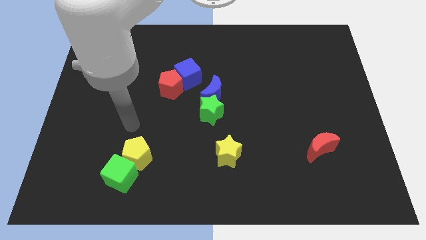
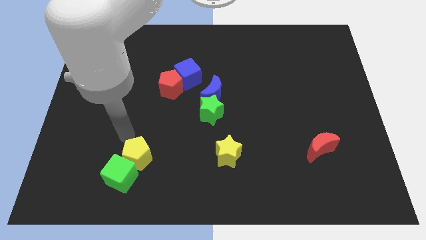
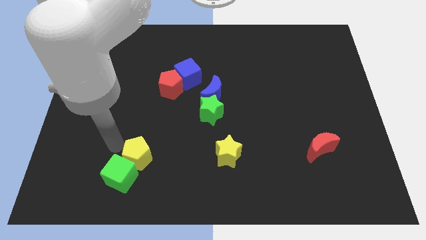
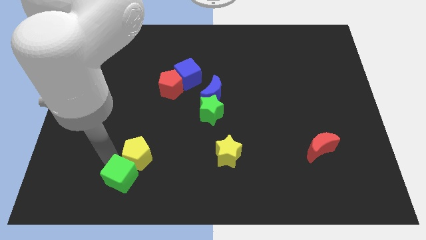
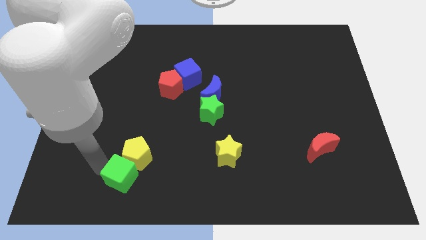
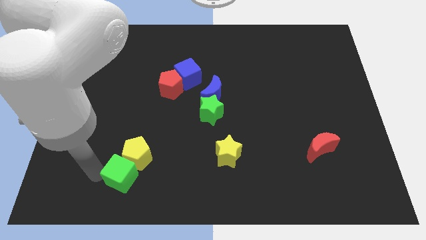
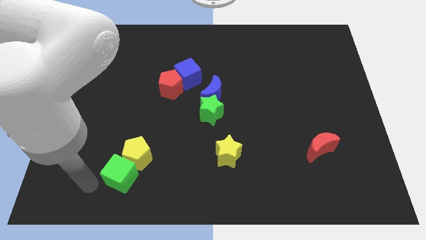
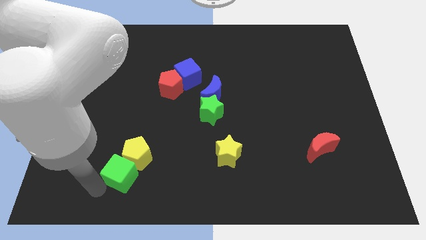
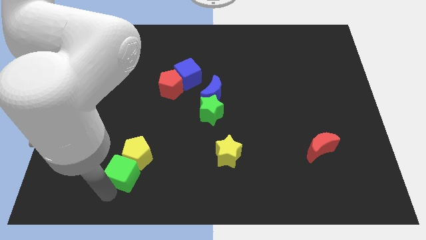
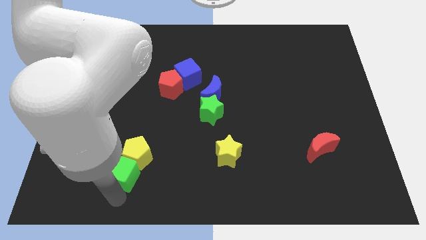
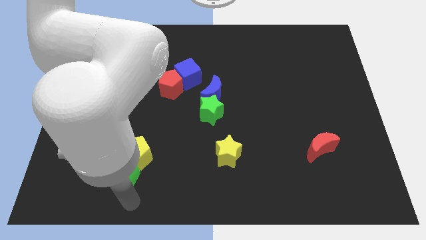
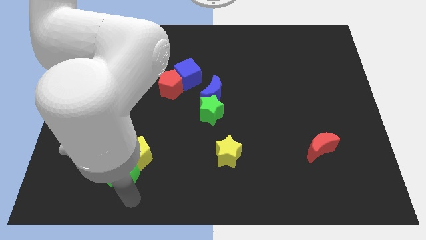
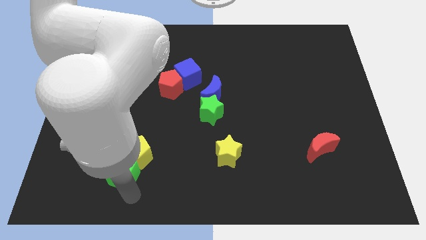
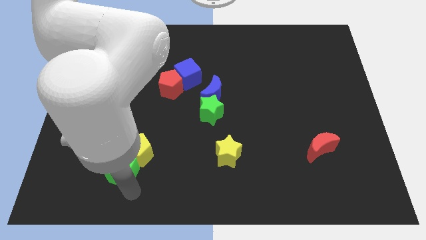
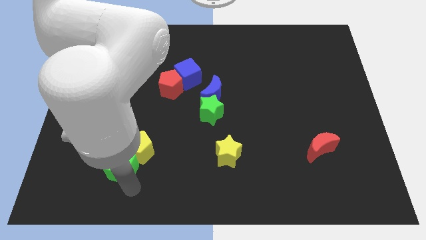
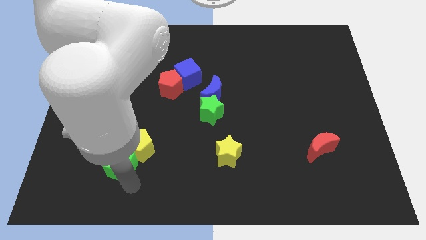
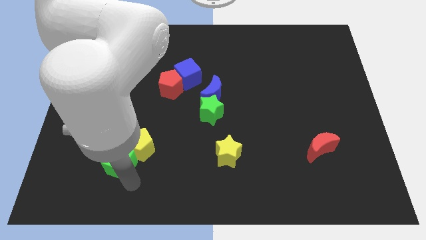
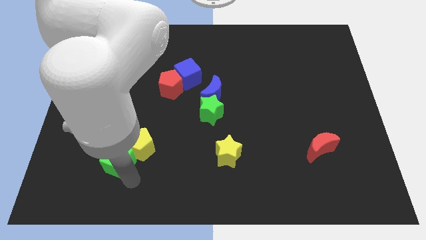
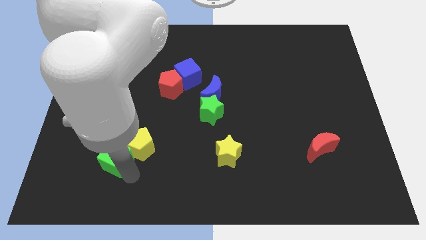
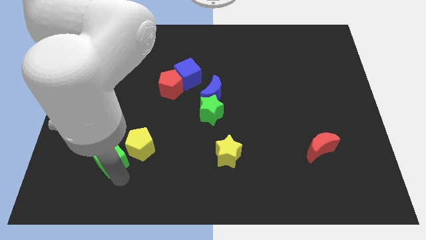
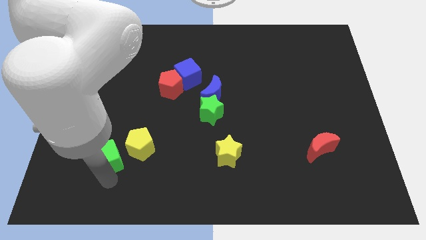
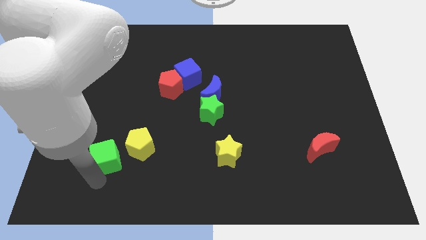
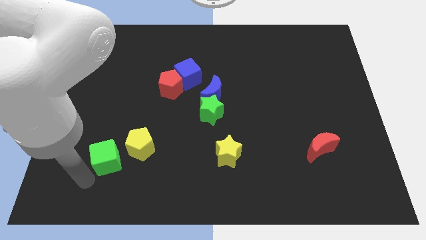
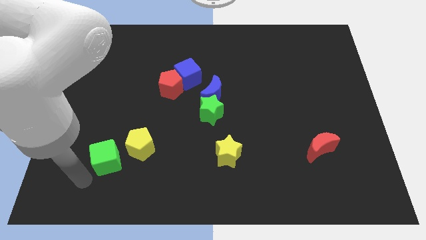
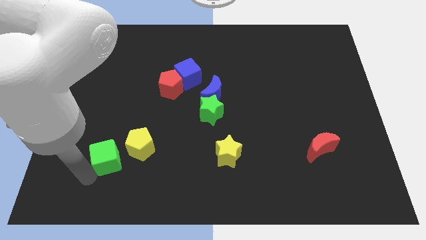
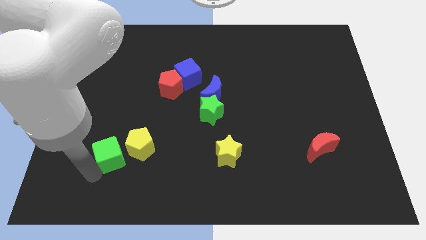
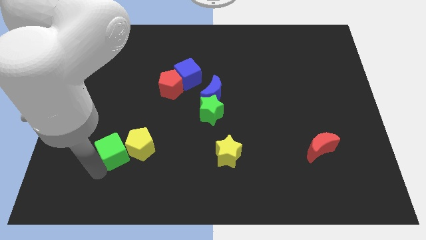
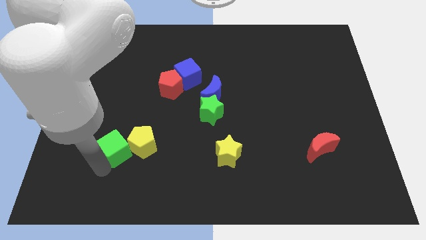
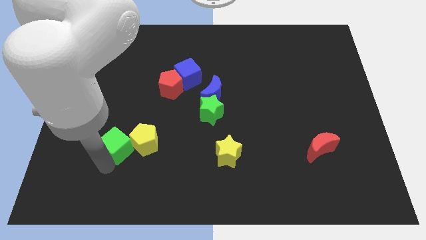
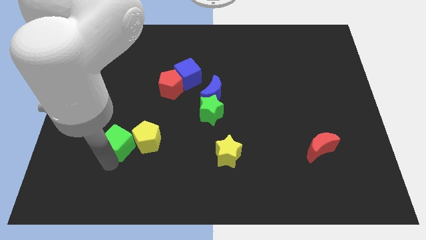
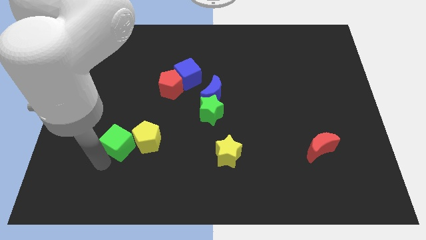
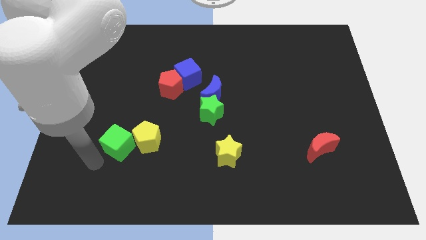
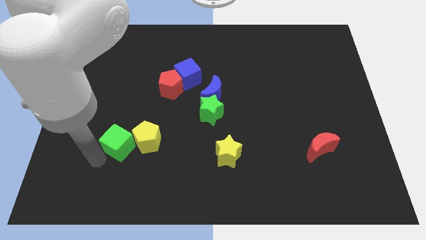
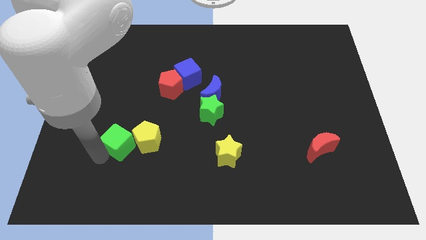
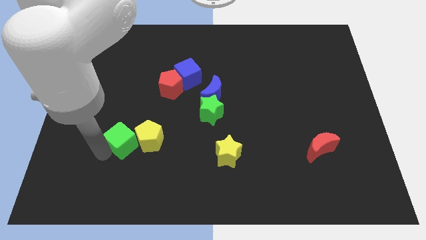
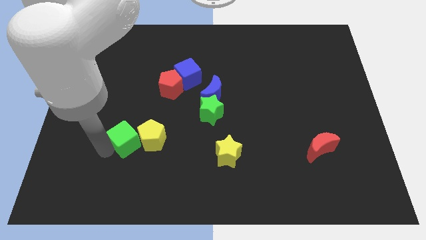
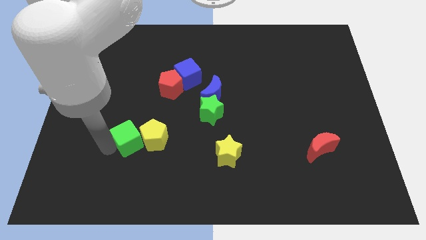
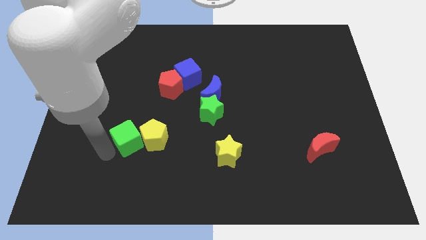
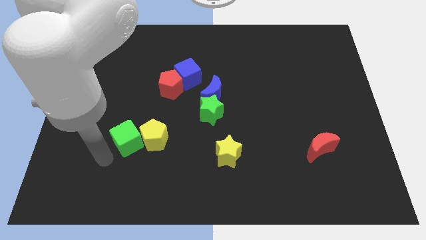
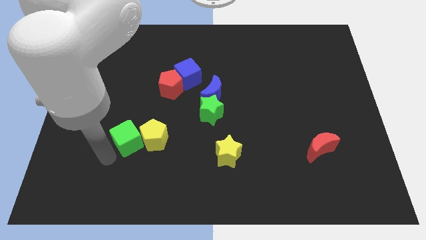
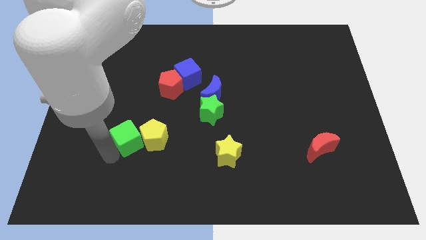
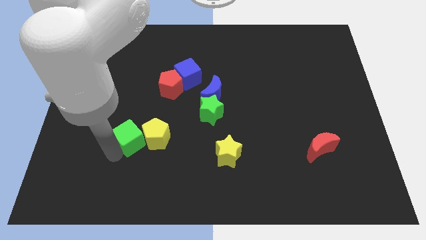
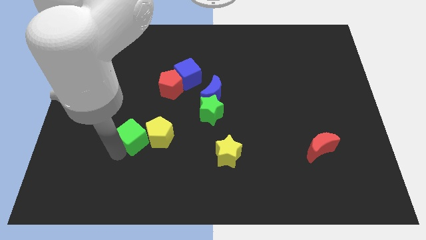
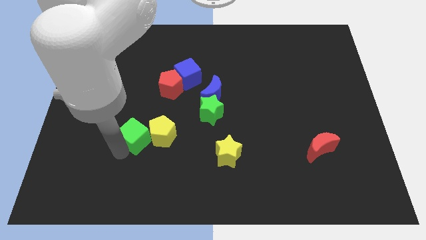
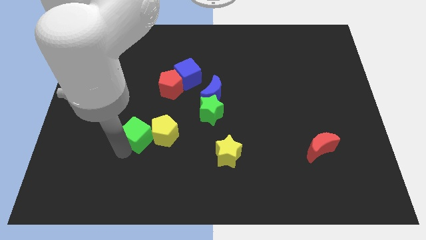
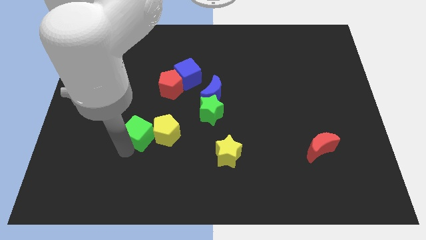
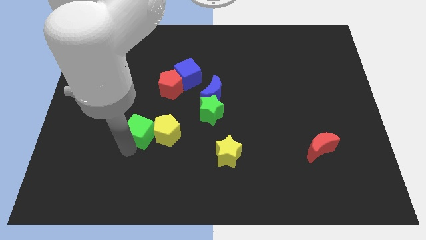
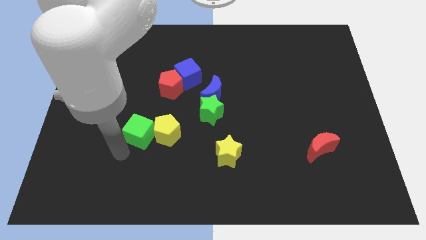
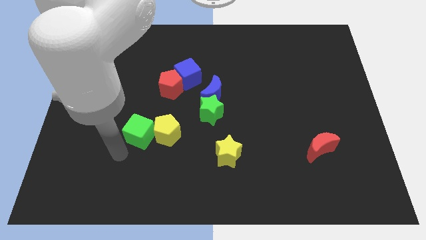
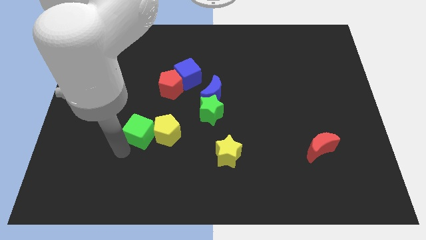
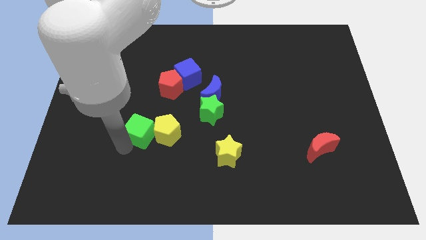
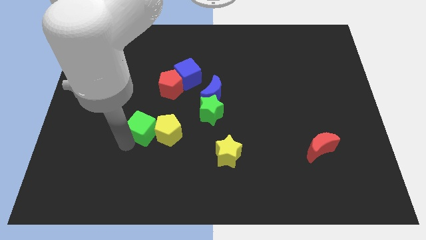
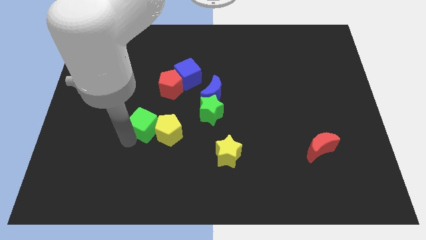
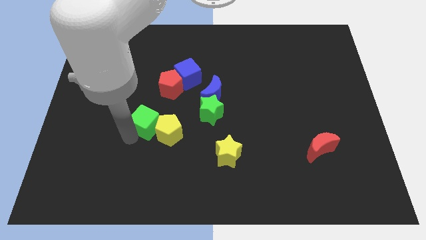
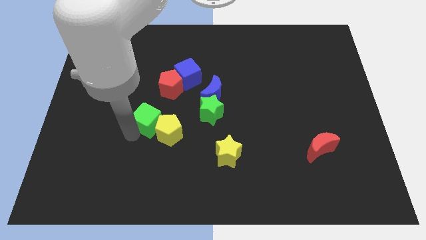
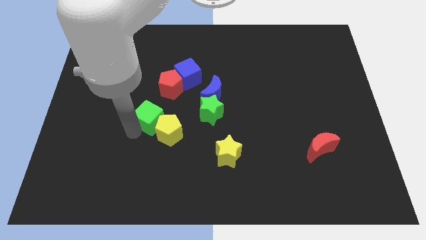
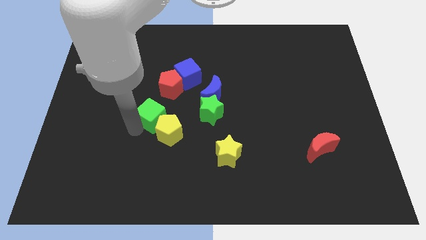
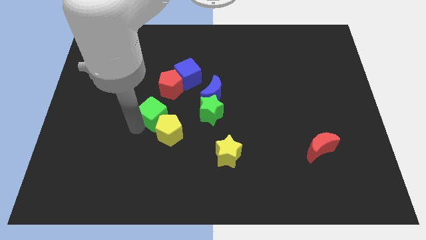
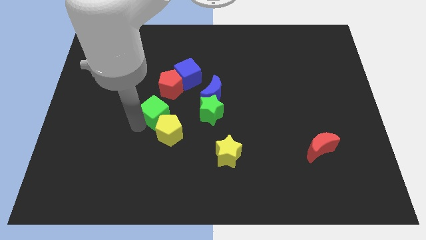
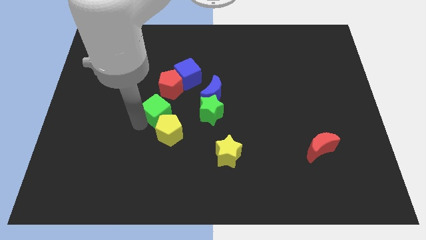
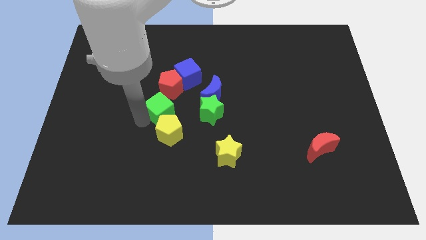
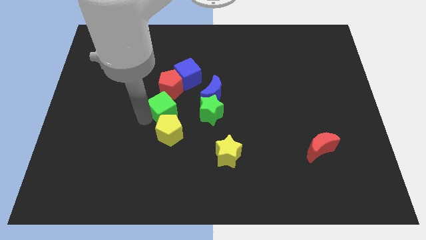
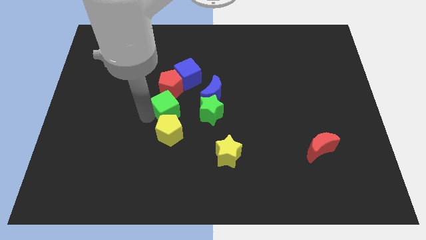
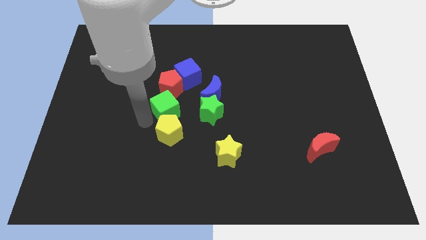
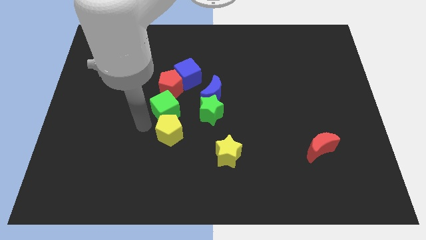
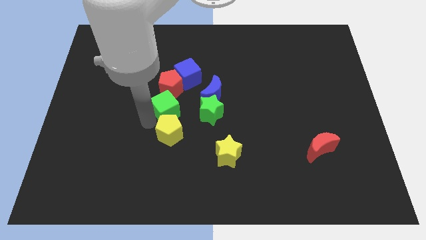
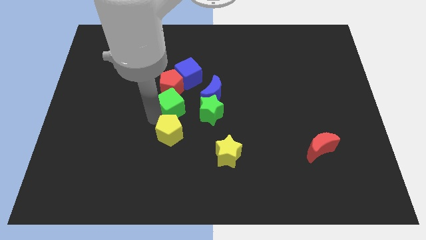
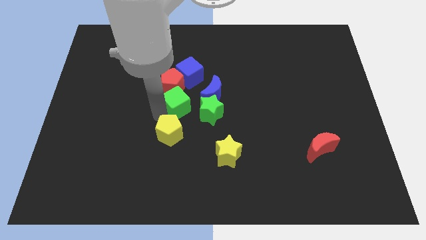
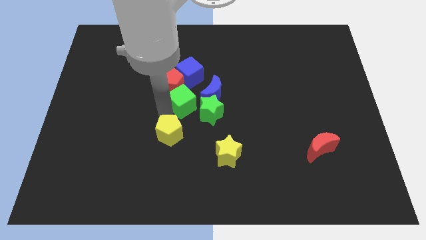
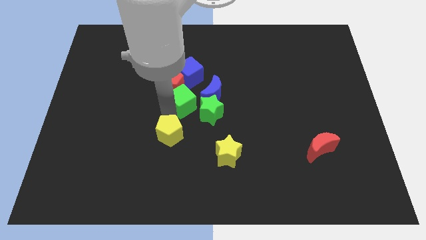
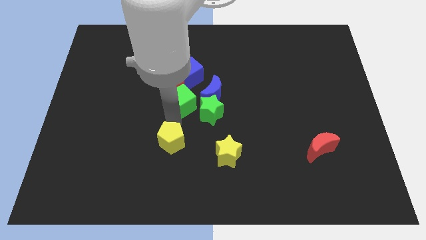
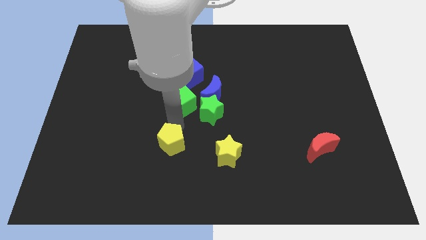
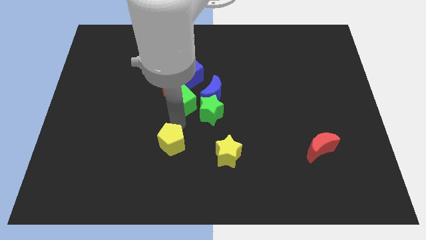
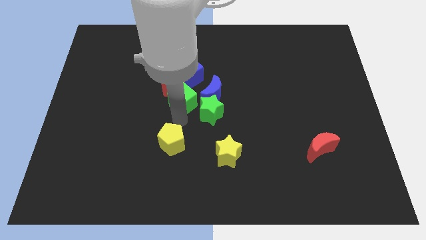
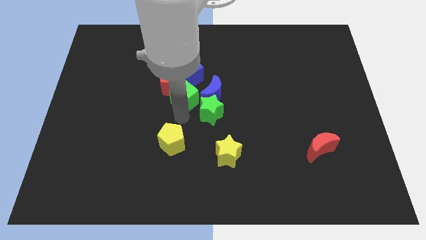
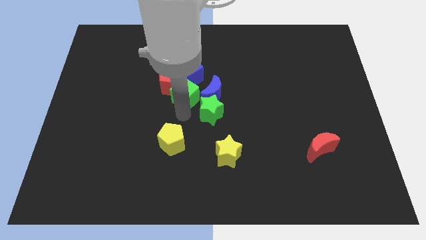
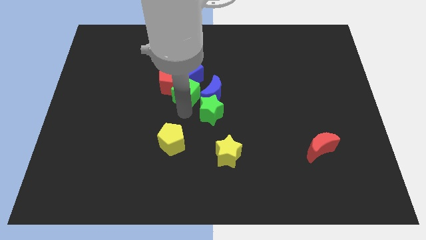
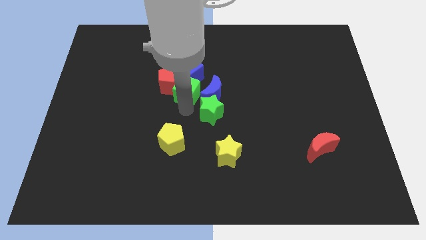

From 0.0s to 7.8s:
put the green cube close to the blue cube
